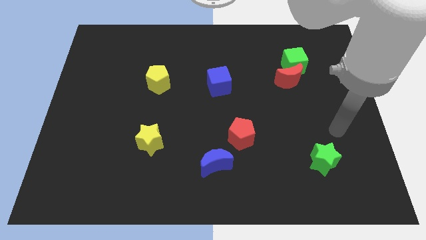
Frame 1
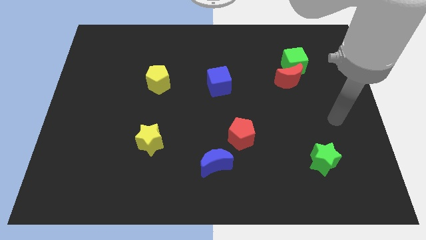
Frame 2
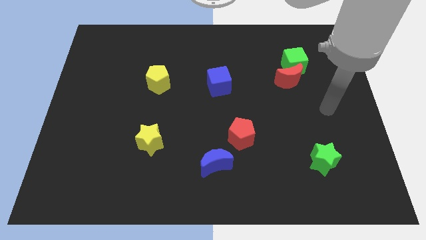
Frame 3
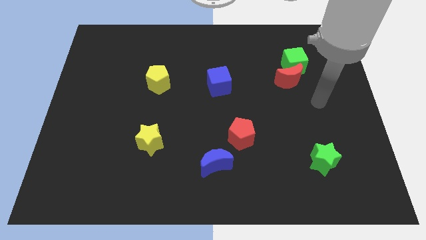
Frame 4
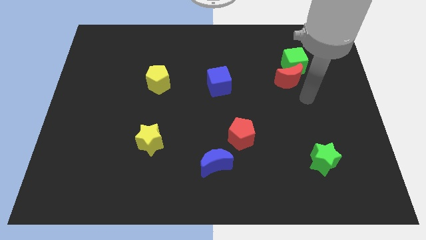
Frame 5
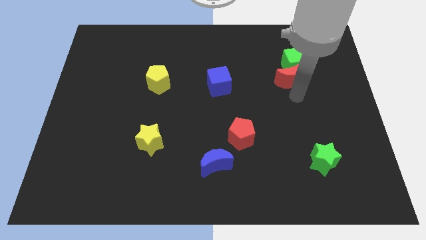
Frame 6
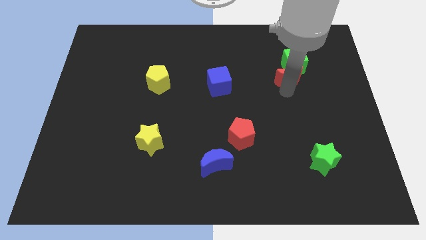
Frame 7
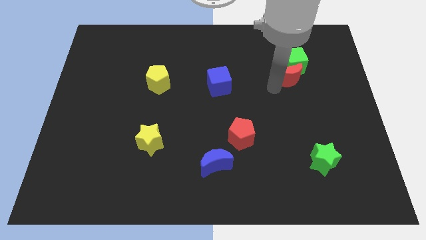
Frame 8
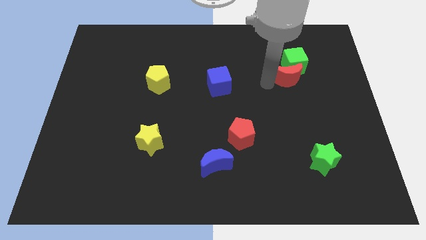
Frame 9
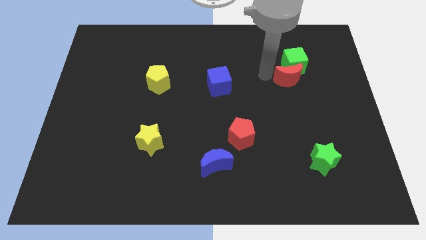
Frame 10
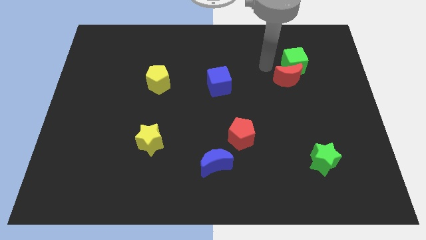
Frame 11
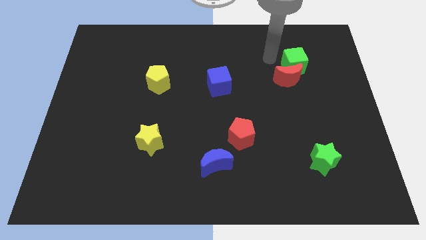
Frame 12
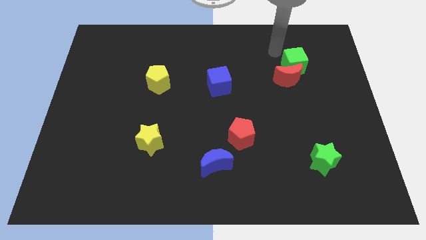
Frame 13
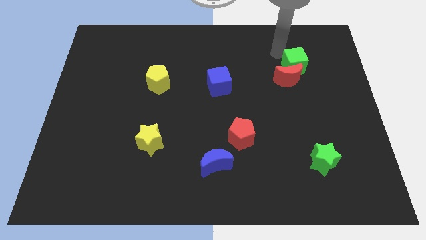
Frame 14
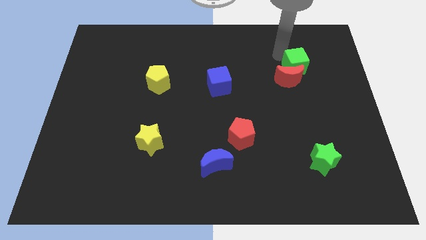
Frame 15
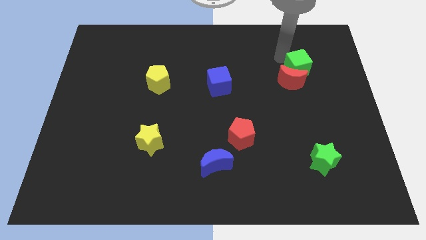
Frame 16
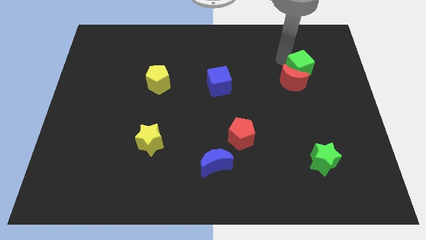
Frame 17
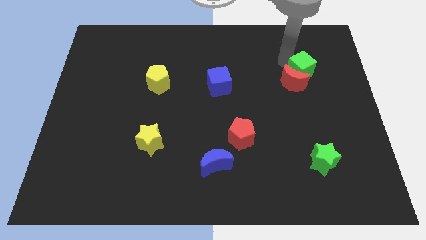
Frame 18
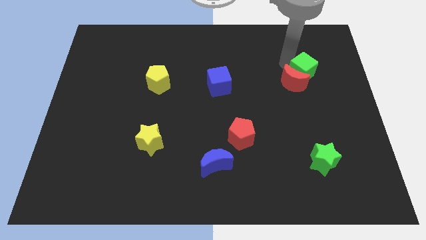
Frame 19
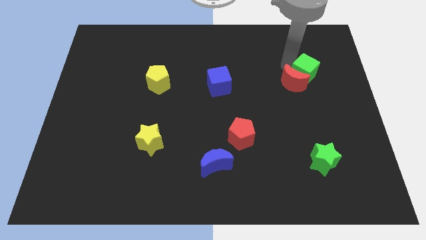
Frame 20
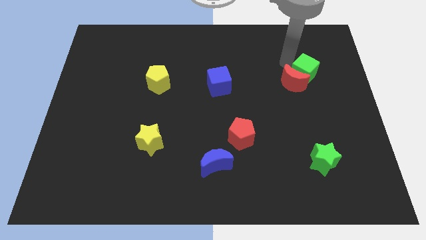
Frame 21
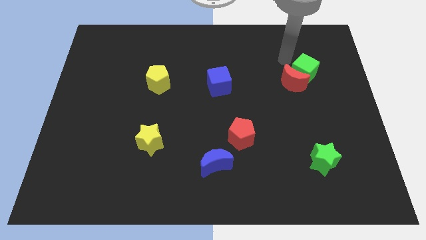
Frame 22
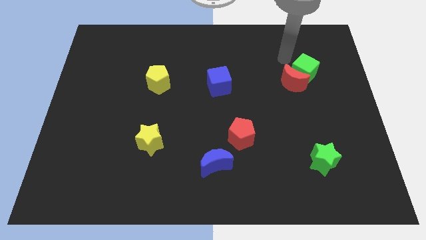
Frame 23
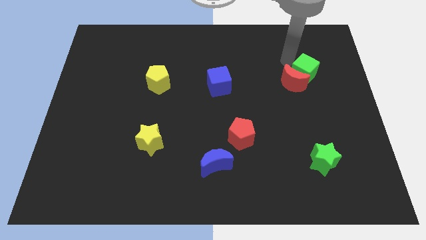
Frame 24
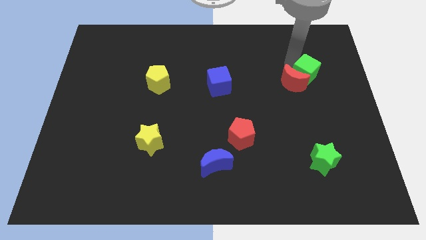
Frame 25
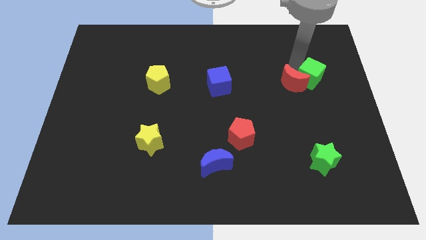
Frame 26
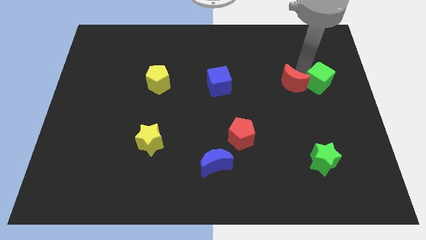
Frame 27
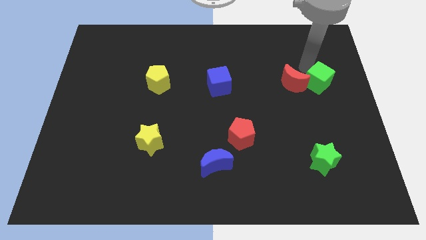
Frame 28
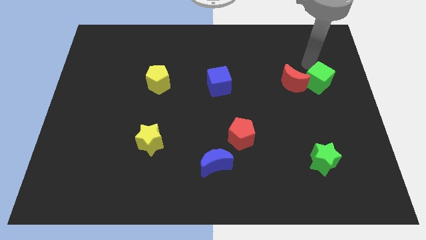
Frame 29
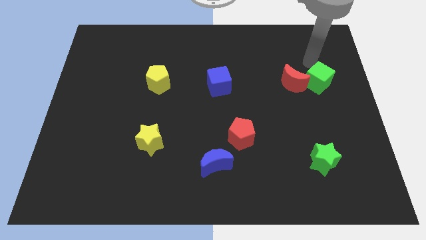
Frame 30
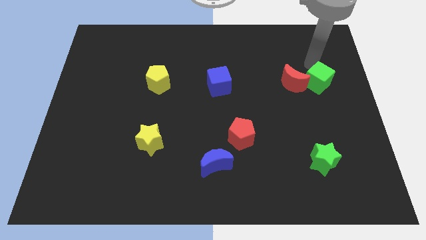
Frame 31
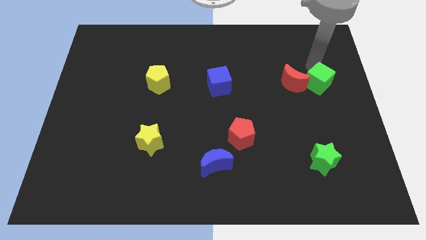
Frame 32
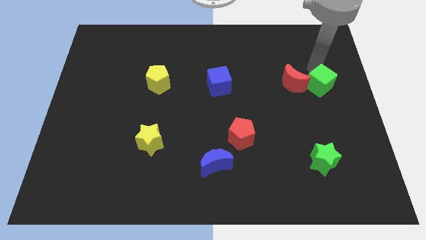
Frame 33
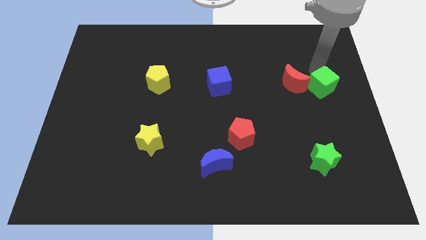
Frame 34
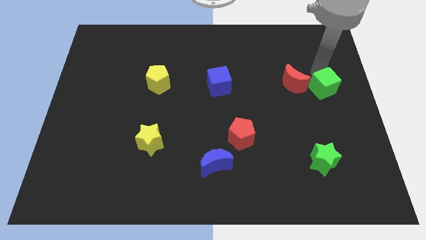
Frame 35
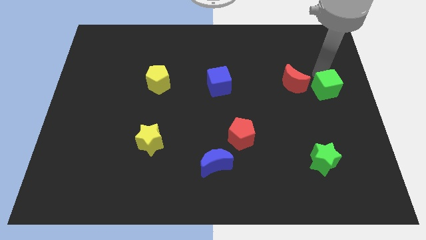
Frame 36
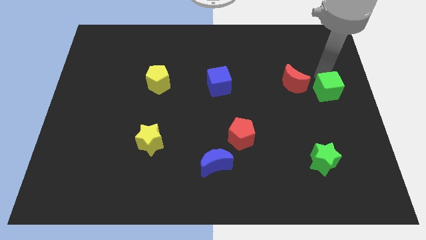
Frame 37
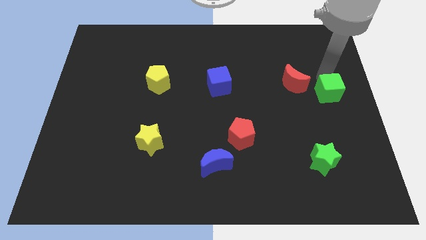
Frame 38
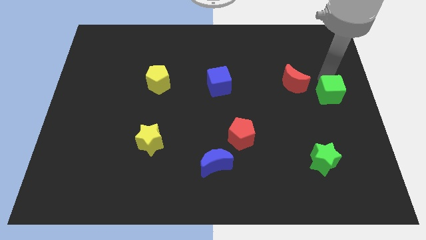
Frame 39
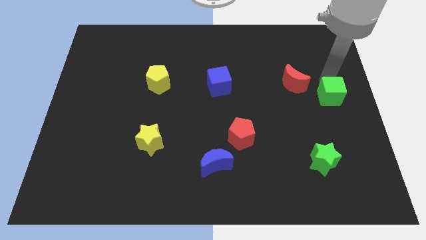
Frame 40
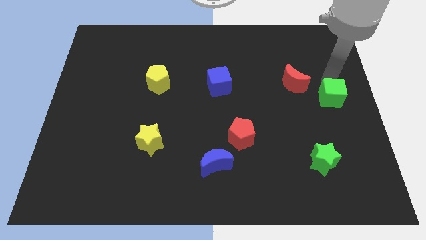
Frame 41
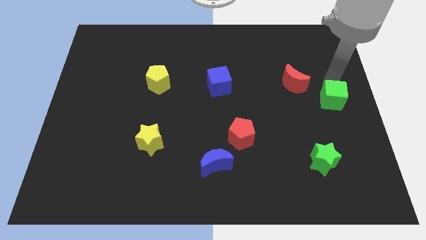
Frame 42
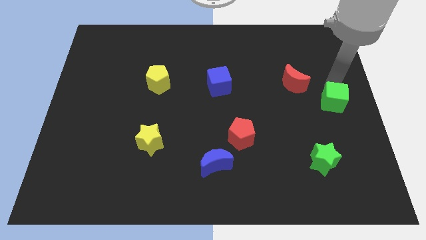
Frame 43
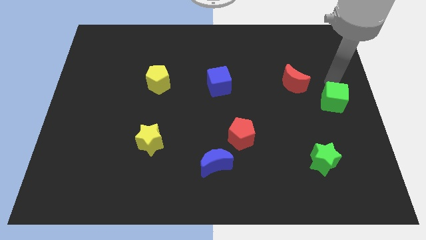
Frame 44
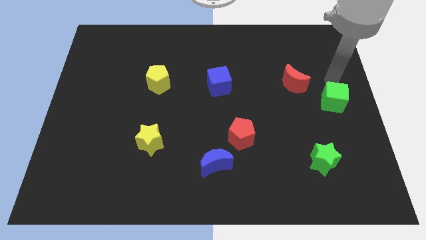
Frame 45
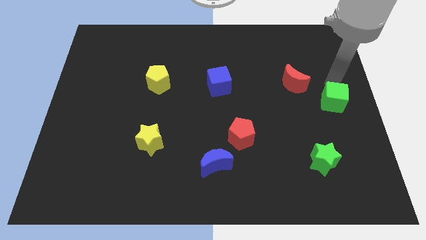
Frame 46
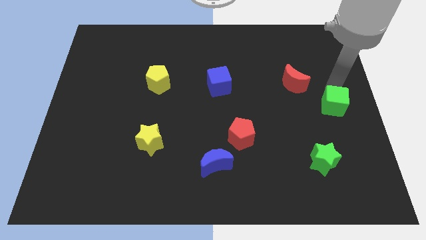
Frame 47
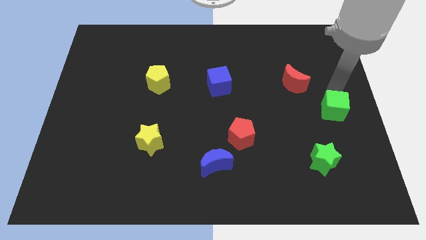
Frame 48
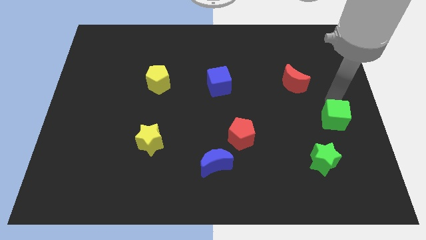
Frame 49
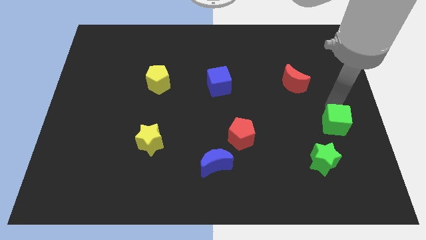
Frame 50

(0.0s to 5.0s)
move the green cube to the top right of the green star

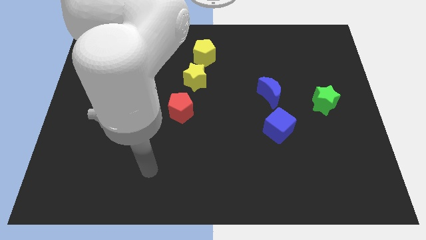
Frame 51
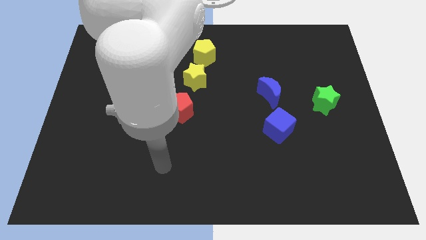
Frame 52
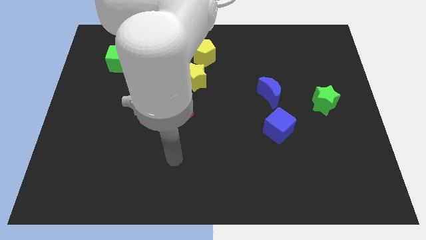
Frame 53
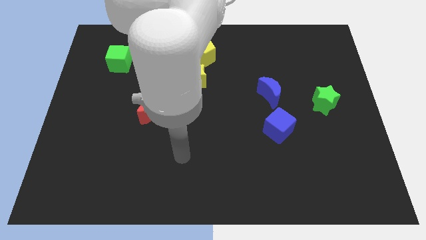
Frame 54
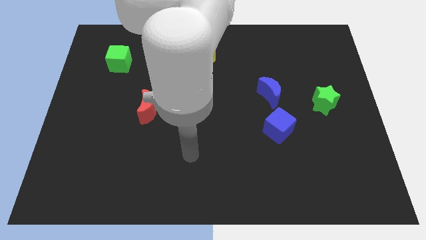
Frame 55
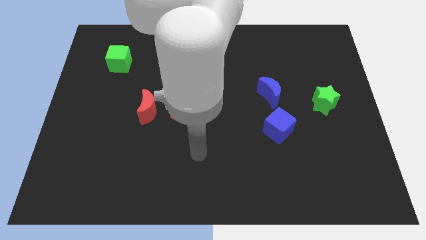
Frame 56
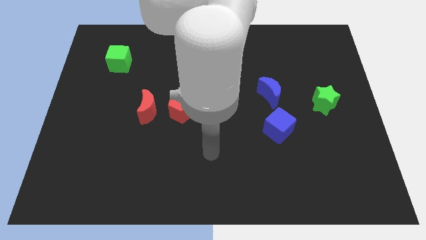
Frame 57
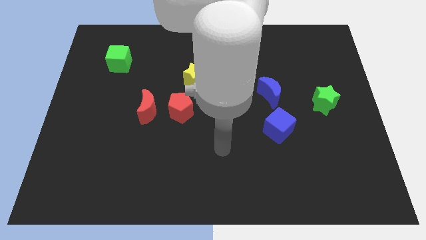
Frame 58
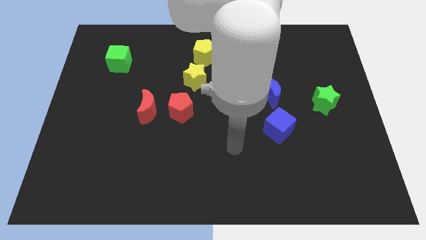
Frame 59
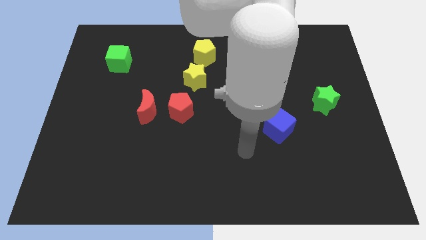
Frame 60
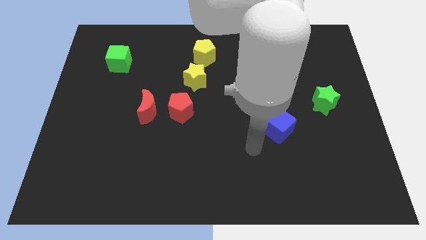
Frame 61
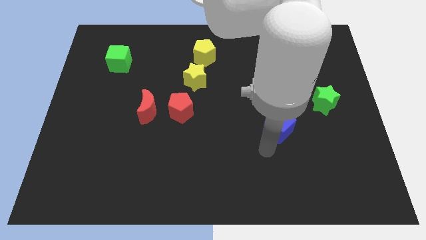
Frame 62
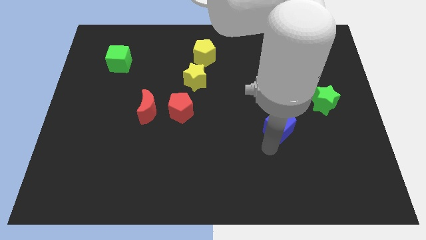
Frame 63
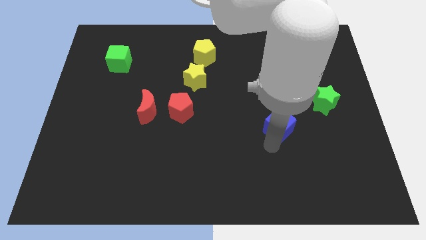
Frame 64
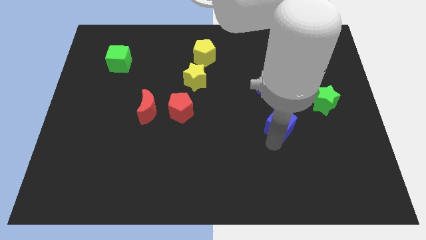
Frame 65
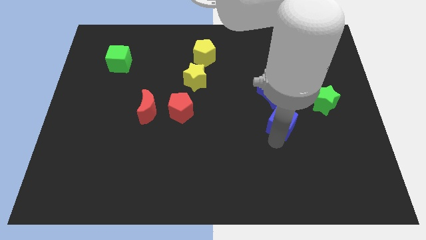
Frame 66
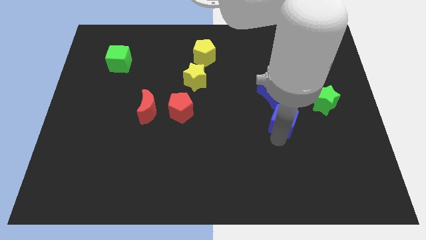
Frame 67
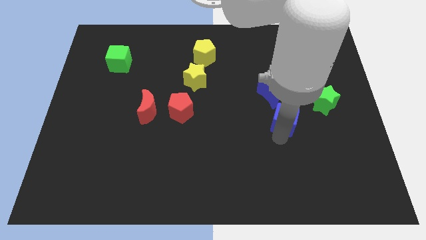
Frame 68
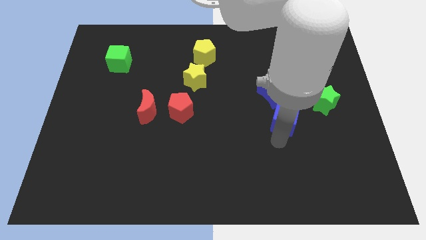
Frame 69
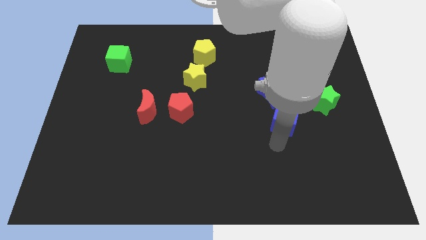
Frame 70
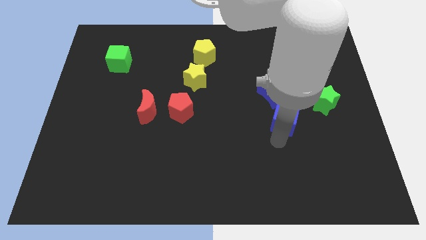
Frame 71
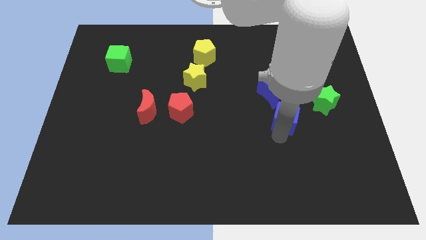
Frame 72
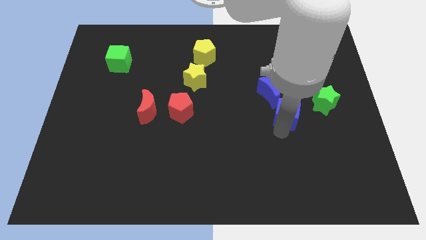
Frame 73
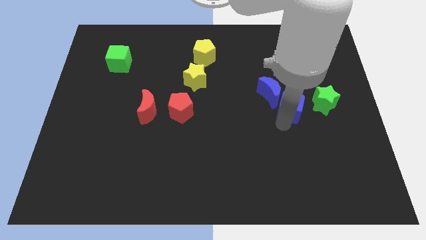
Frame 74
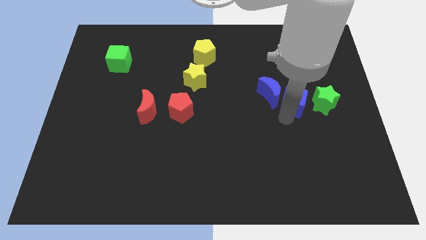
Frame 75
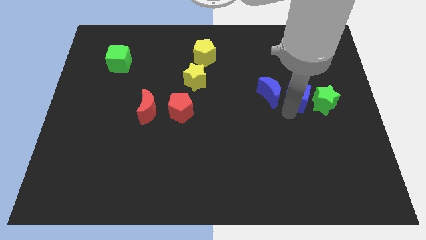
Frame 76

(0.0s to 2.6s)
push the blue cube to the top left of the green star
